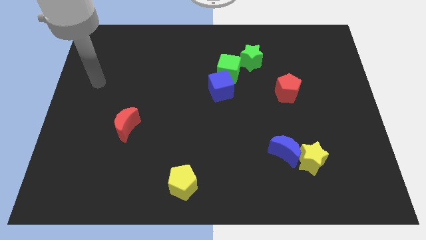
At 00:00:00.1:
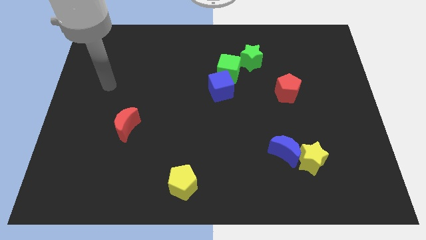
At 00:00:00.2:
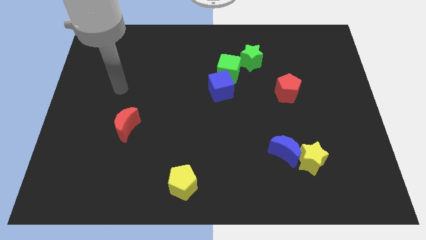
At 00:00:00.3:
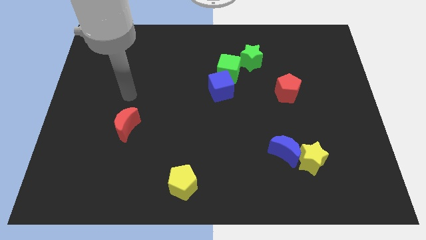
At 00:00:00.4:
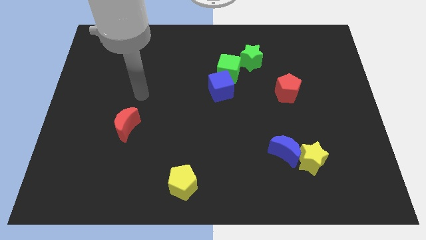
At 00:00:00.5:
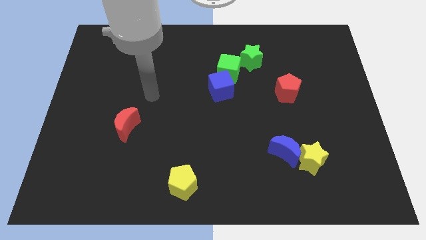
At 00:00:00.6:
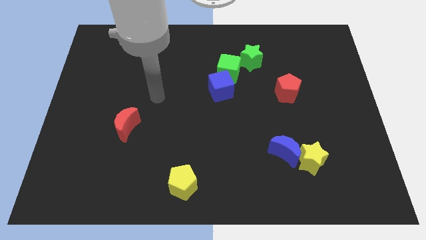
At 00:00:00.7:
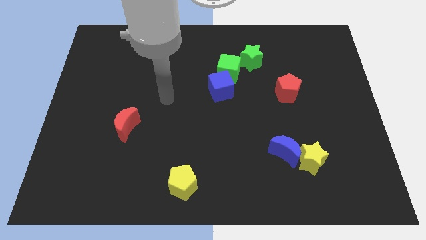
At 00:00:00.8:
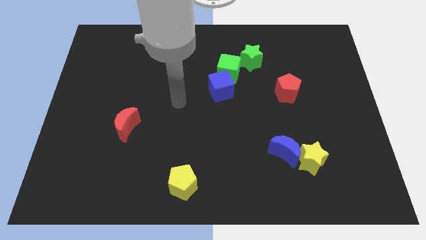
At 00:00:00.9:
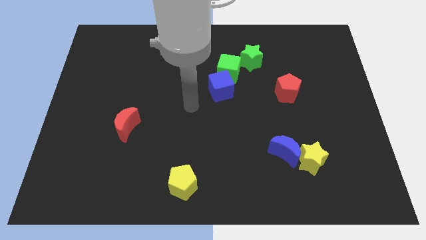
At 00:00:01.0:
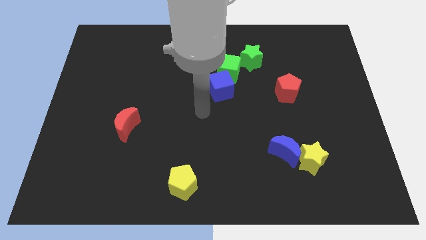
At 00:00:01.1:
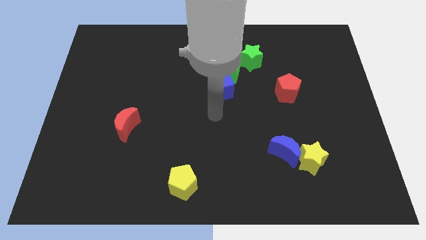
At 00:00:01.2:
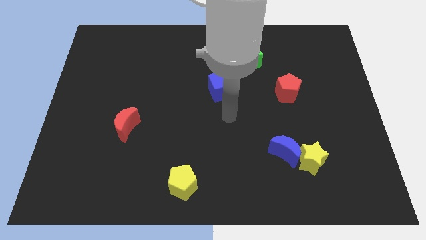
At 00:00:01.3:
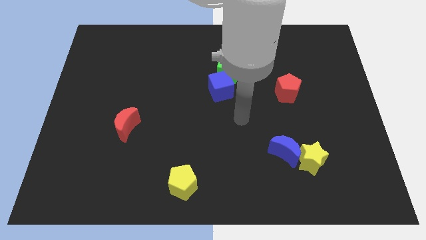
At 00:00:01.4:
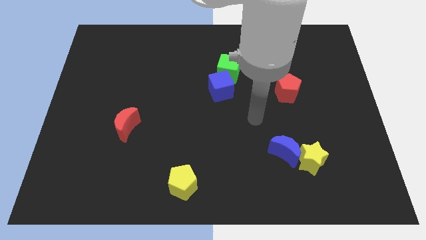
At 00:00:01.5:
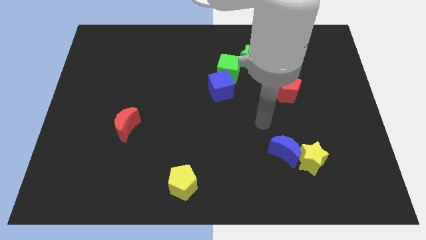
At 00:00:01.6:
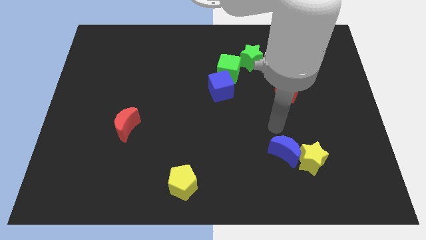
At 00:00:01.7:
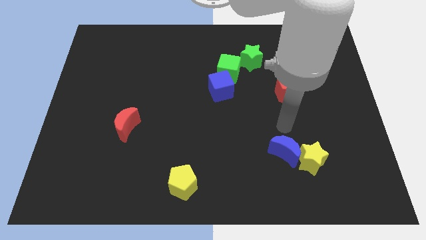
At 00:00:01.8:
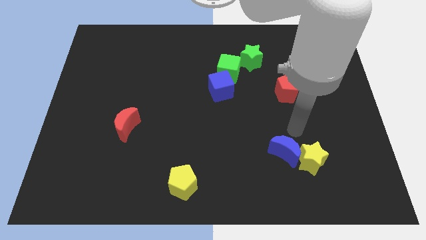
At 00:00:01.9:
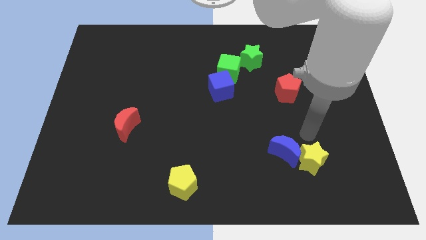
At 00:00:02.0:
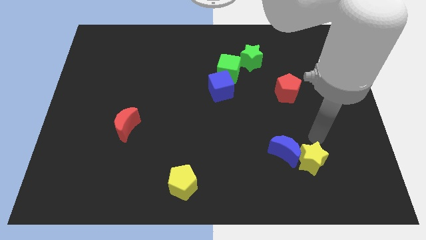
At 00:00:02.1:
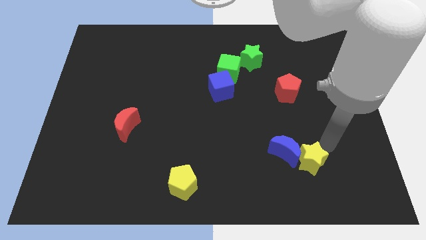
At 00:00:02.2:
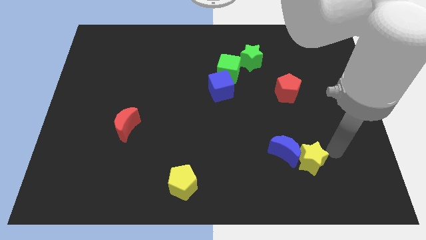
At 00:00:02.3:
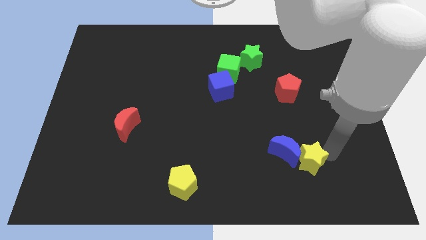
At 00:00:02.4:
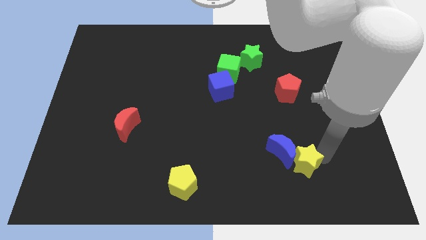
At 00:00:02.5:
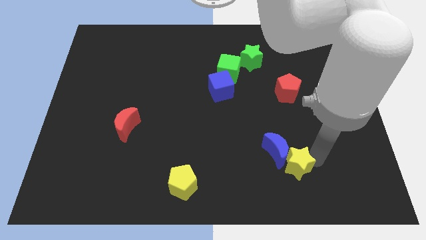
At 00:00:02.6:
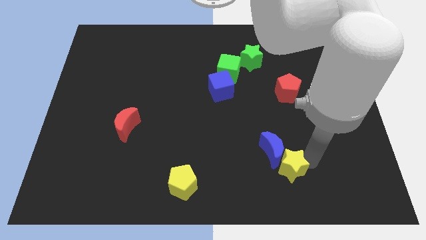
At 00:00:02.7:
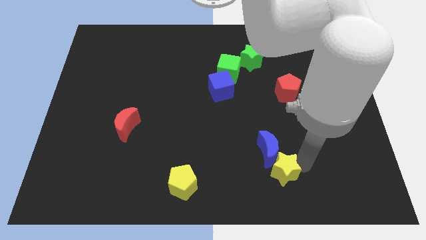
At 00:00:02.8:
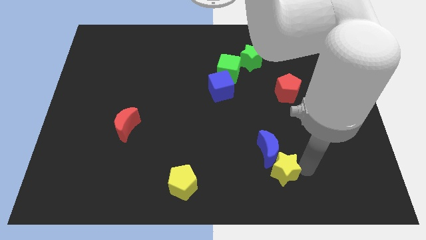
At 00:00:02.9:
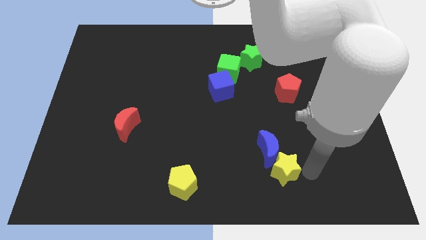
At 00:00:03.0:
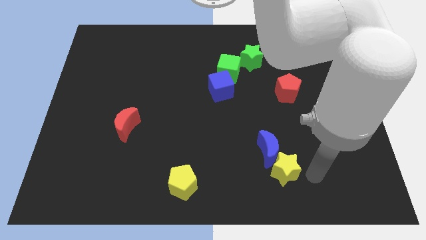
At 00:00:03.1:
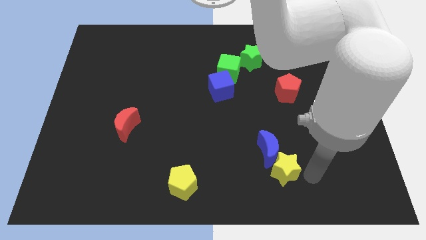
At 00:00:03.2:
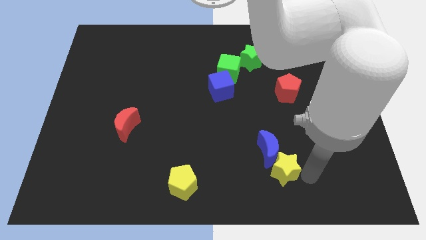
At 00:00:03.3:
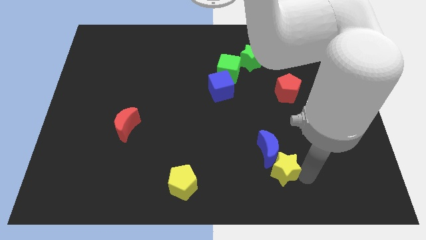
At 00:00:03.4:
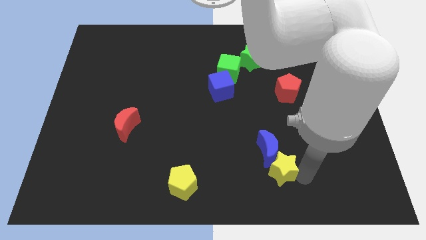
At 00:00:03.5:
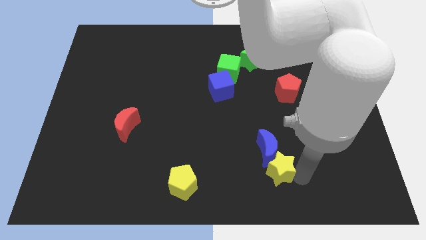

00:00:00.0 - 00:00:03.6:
slide the yellow star slightly left

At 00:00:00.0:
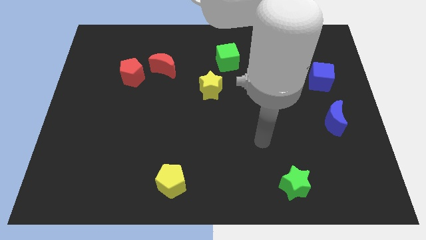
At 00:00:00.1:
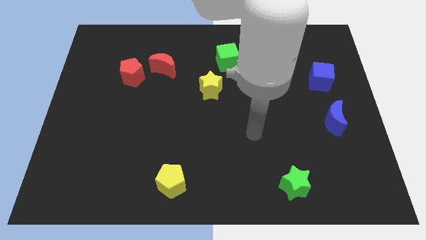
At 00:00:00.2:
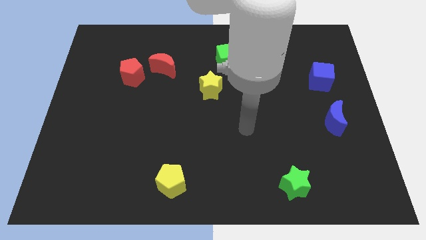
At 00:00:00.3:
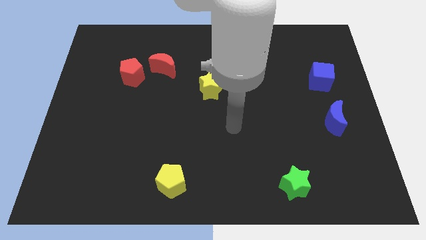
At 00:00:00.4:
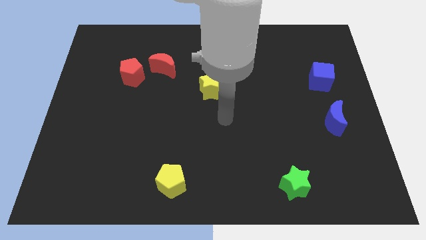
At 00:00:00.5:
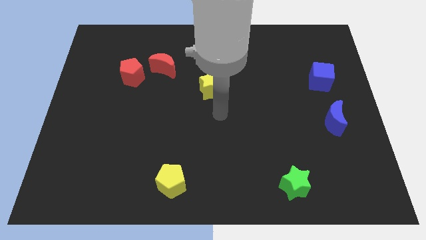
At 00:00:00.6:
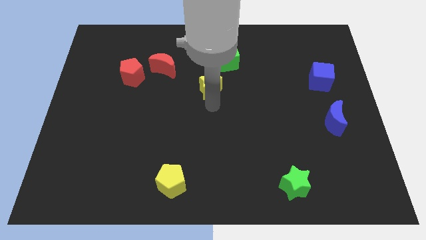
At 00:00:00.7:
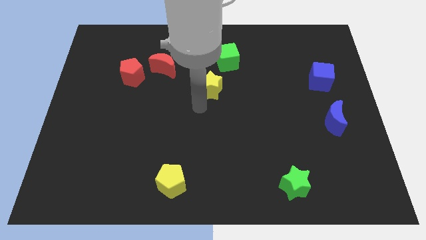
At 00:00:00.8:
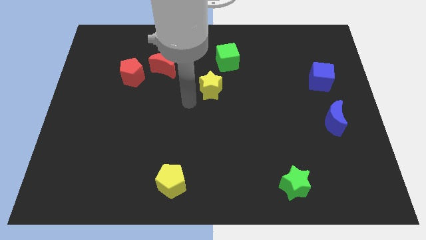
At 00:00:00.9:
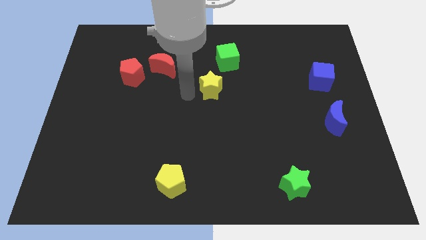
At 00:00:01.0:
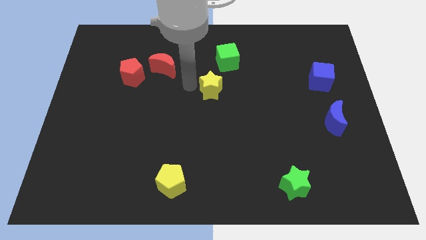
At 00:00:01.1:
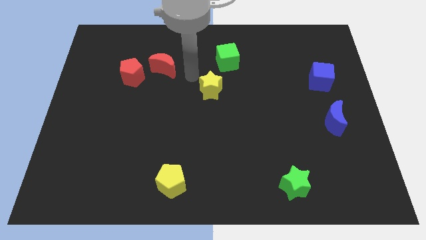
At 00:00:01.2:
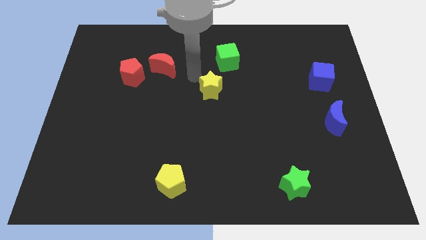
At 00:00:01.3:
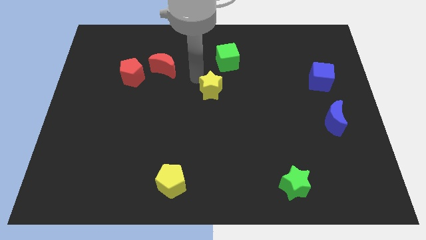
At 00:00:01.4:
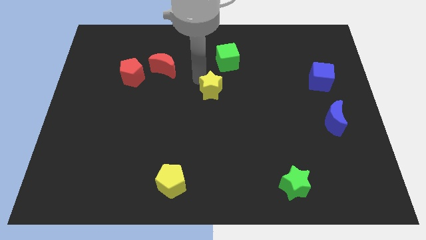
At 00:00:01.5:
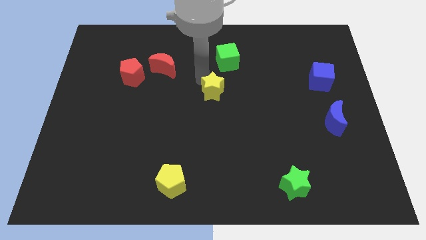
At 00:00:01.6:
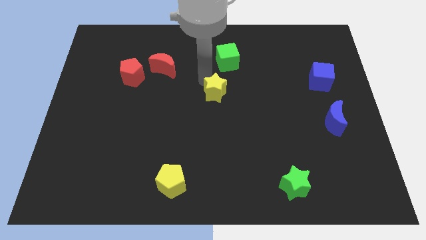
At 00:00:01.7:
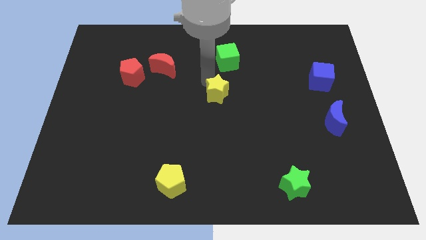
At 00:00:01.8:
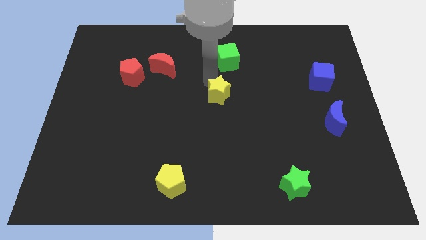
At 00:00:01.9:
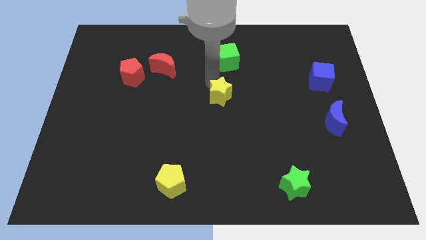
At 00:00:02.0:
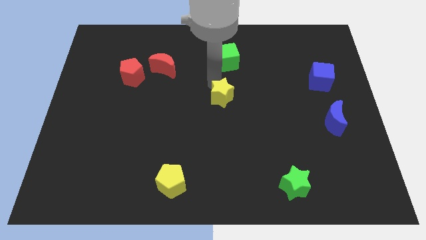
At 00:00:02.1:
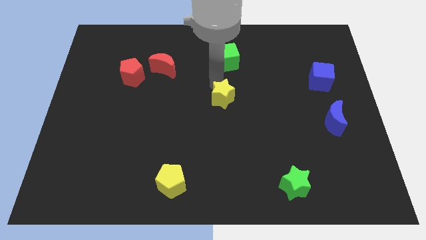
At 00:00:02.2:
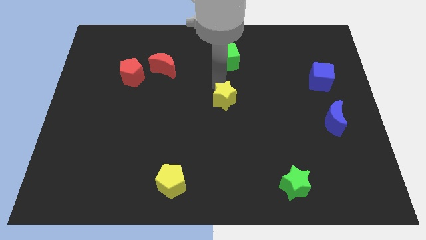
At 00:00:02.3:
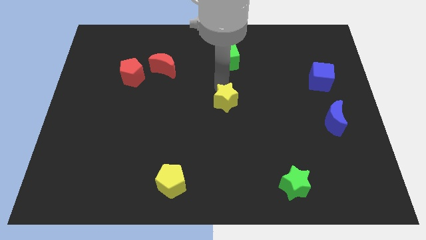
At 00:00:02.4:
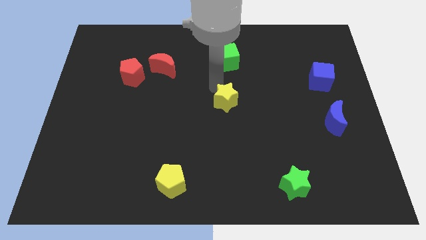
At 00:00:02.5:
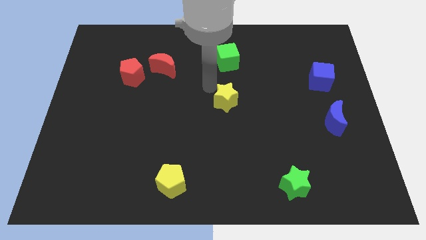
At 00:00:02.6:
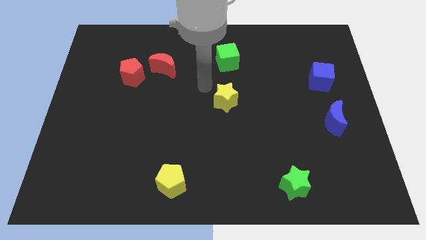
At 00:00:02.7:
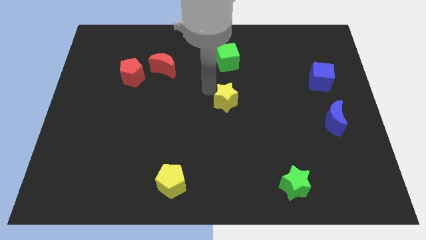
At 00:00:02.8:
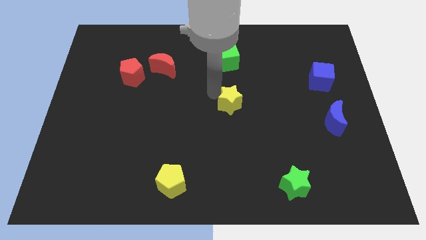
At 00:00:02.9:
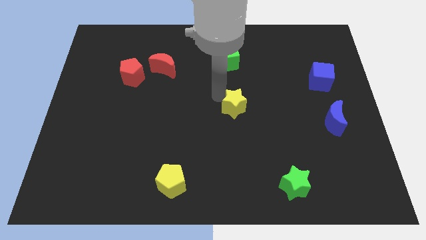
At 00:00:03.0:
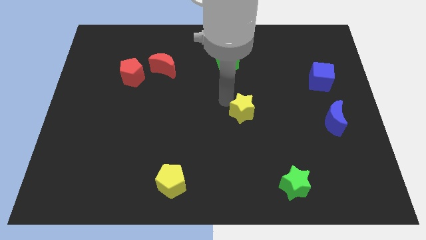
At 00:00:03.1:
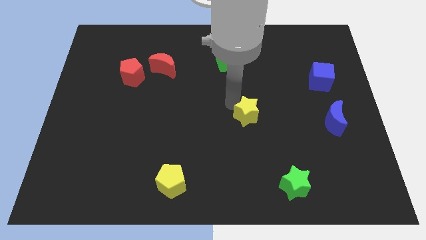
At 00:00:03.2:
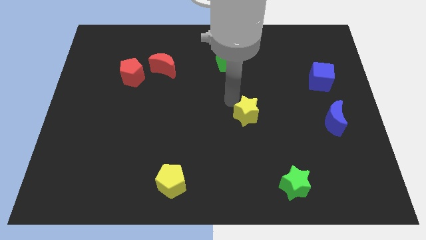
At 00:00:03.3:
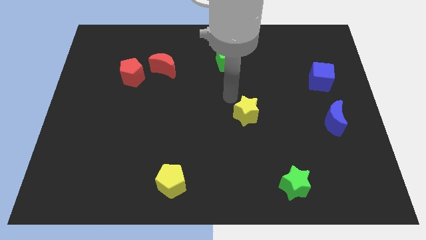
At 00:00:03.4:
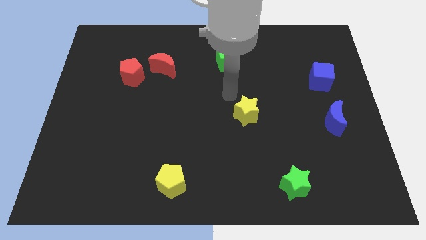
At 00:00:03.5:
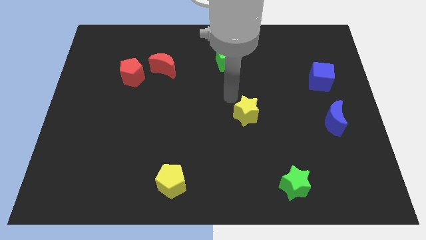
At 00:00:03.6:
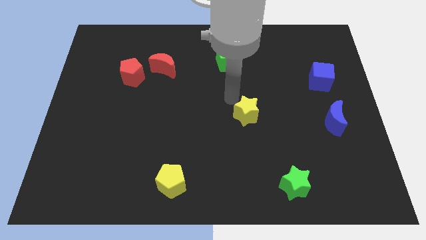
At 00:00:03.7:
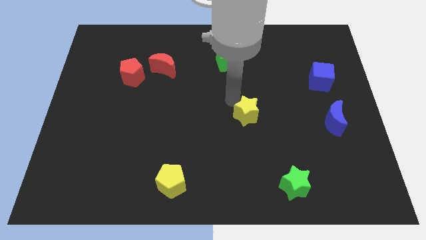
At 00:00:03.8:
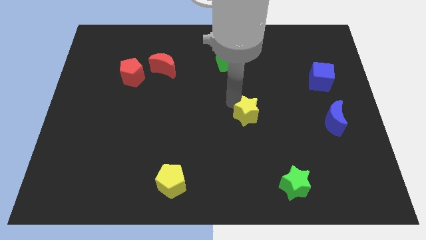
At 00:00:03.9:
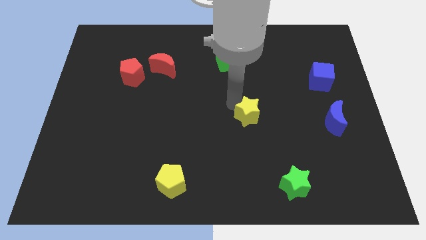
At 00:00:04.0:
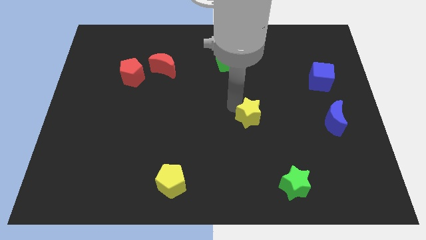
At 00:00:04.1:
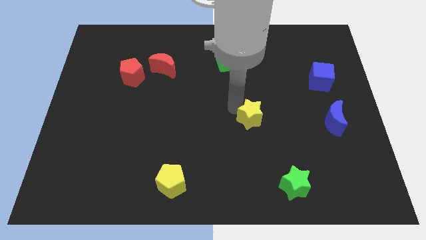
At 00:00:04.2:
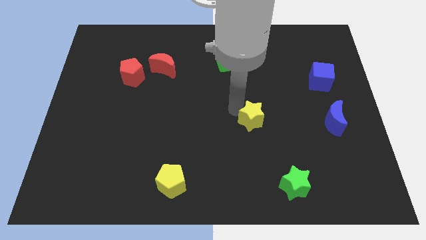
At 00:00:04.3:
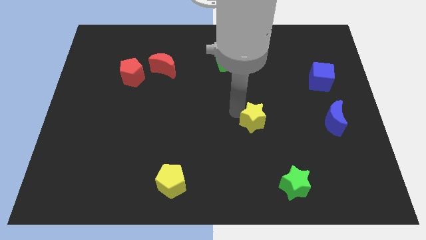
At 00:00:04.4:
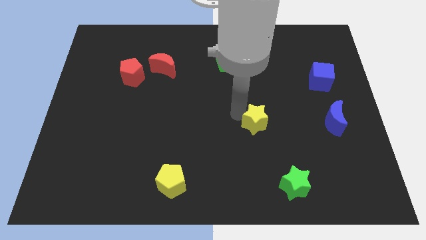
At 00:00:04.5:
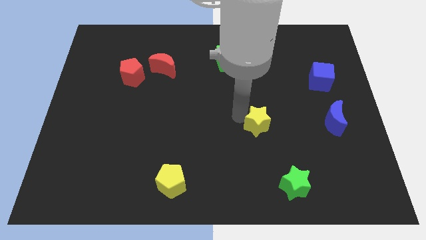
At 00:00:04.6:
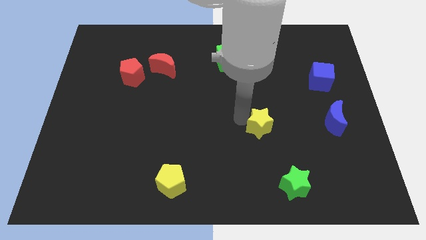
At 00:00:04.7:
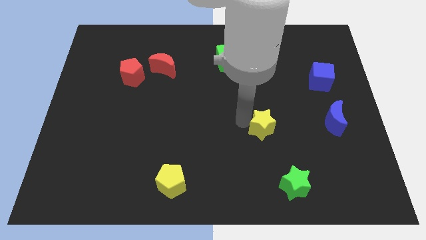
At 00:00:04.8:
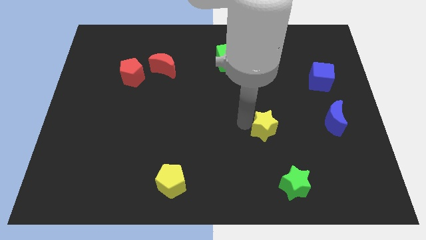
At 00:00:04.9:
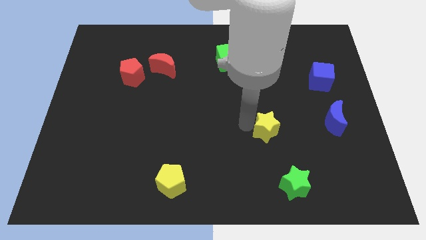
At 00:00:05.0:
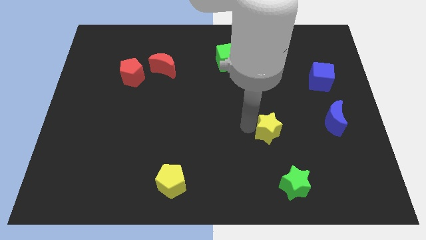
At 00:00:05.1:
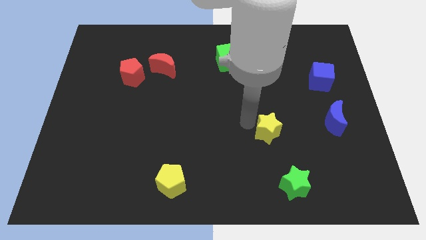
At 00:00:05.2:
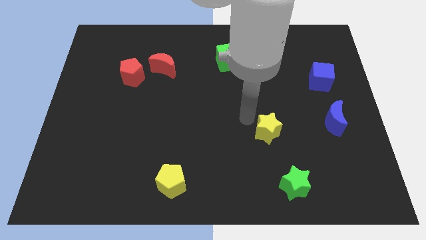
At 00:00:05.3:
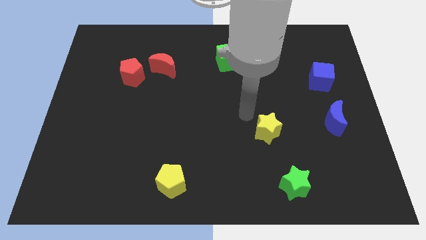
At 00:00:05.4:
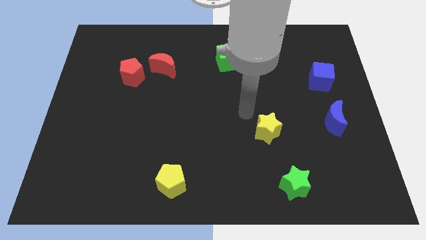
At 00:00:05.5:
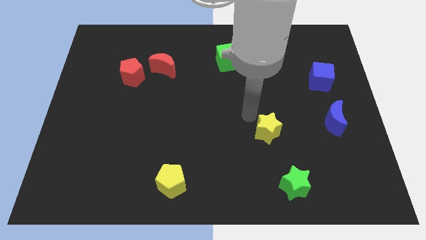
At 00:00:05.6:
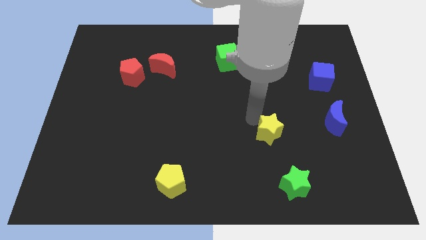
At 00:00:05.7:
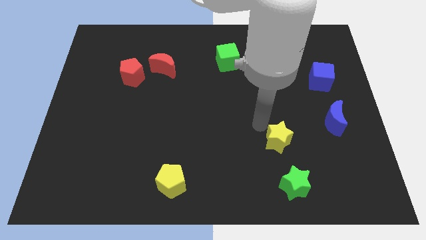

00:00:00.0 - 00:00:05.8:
slide the yellow star diagonally downwards and right
